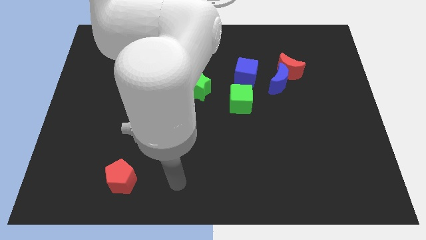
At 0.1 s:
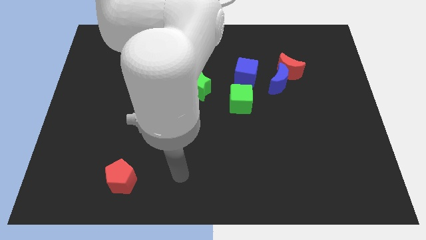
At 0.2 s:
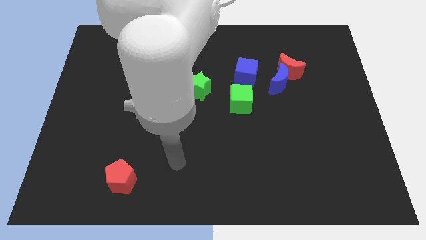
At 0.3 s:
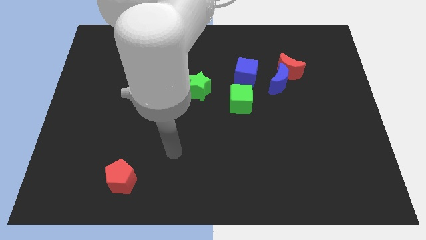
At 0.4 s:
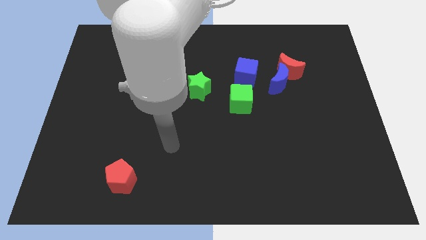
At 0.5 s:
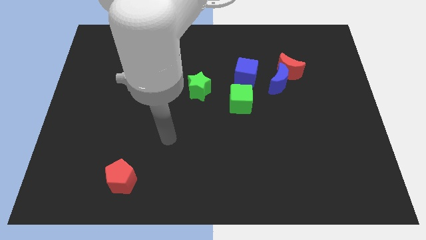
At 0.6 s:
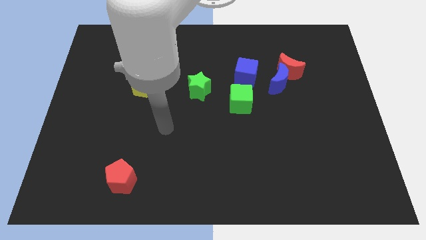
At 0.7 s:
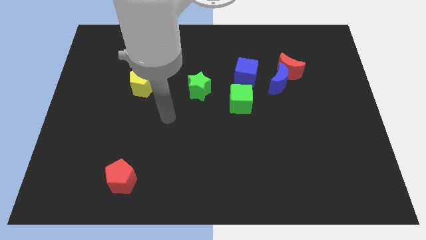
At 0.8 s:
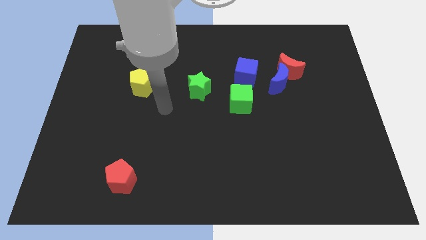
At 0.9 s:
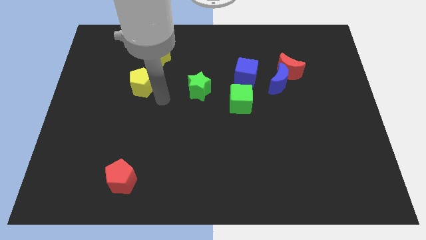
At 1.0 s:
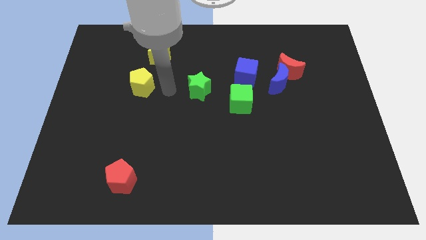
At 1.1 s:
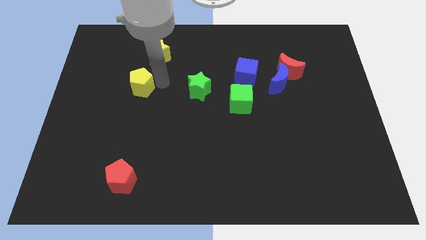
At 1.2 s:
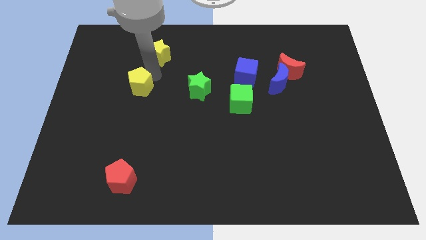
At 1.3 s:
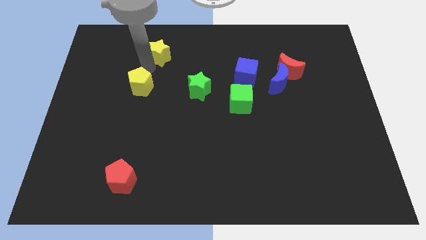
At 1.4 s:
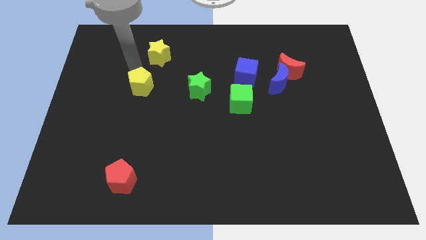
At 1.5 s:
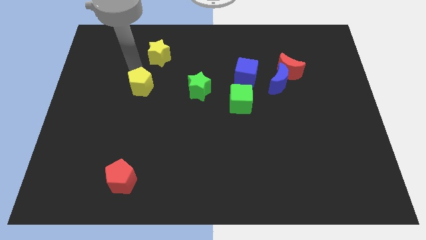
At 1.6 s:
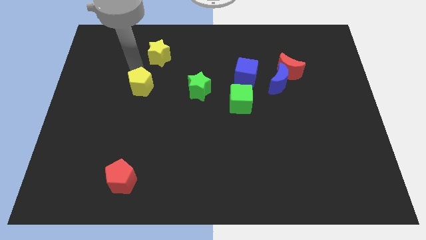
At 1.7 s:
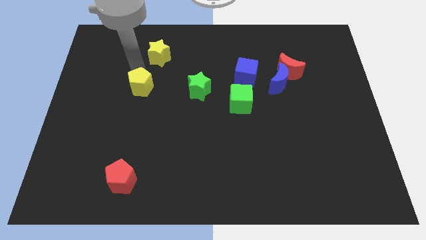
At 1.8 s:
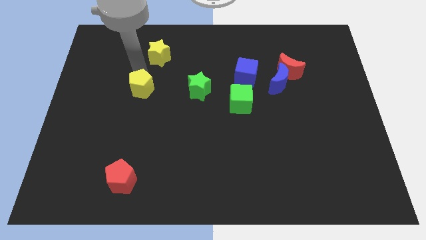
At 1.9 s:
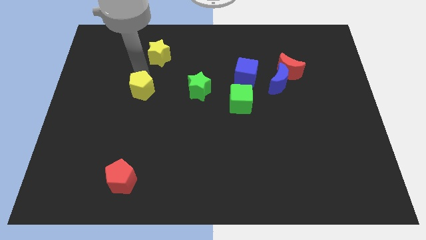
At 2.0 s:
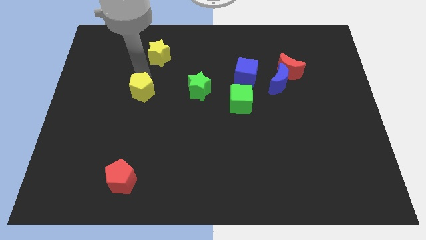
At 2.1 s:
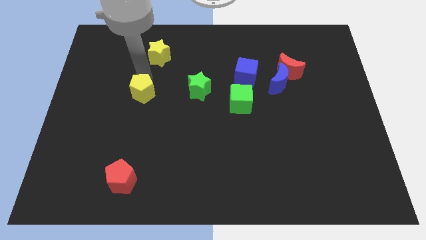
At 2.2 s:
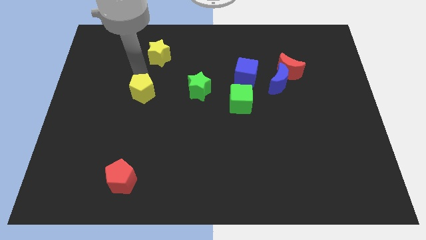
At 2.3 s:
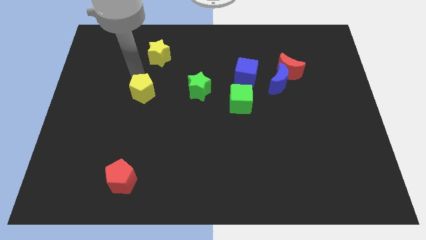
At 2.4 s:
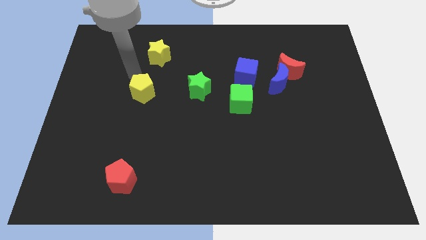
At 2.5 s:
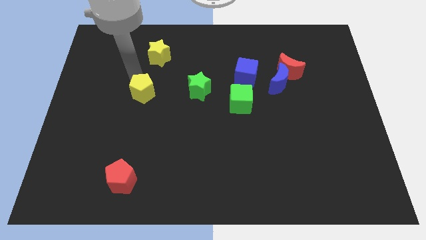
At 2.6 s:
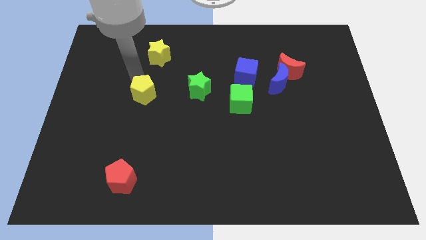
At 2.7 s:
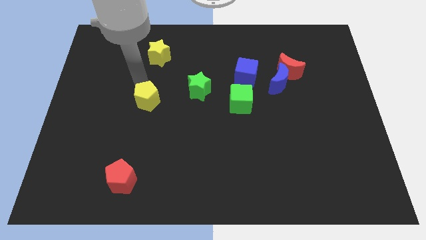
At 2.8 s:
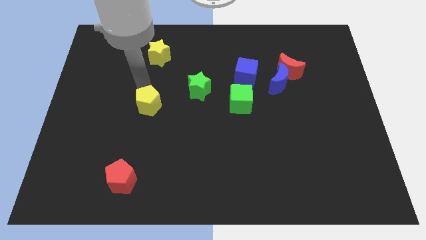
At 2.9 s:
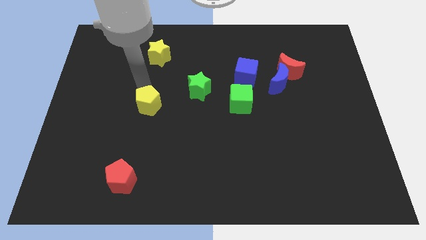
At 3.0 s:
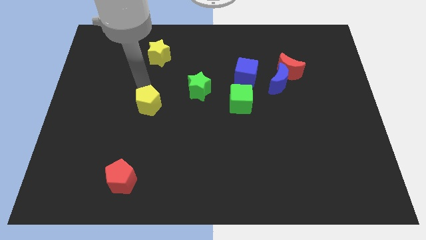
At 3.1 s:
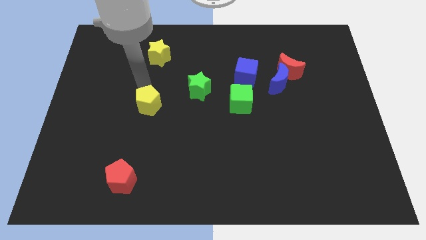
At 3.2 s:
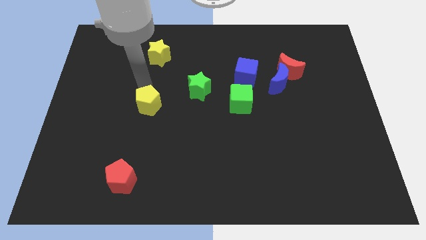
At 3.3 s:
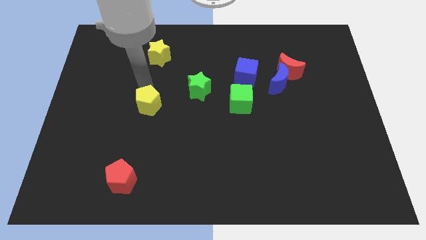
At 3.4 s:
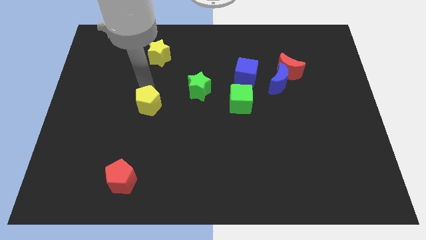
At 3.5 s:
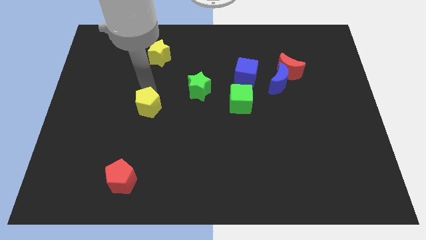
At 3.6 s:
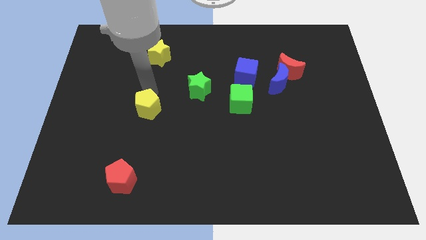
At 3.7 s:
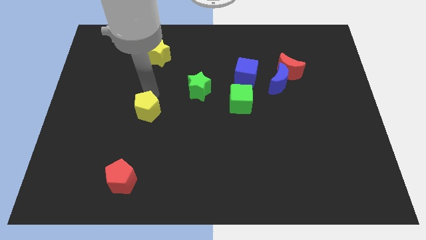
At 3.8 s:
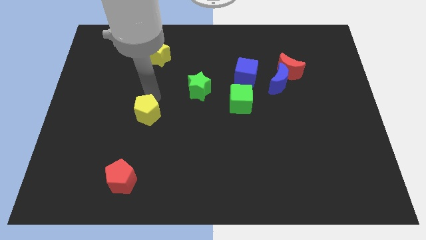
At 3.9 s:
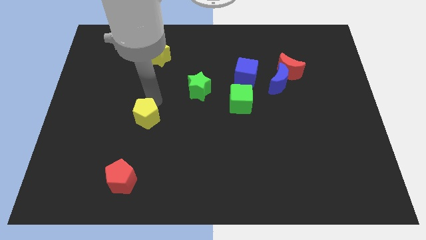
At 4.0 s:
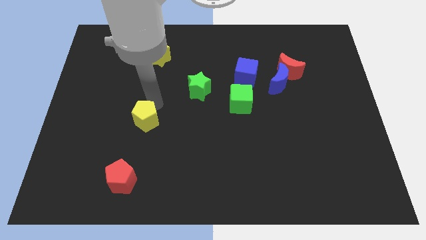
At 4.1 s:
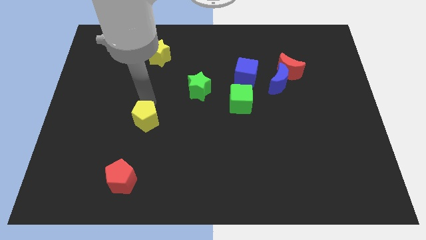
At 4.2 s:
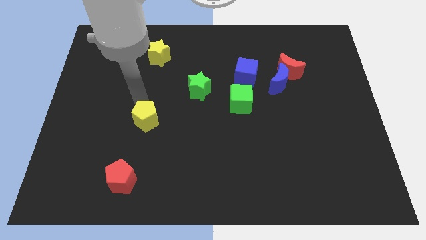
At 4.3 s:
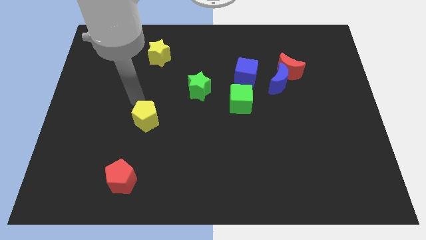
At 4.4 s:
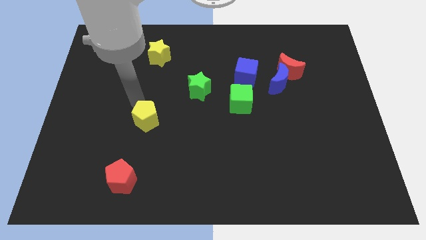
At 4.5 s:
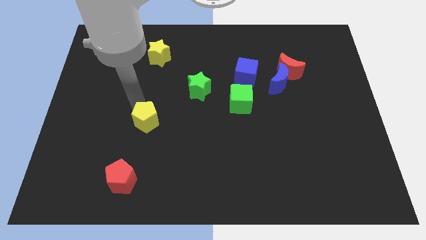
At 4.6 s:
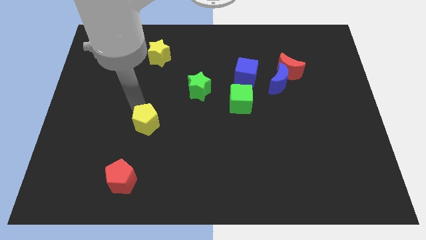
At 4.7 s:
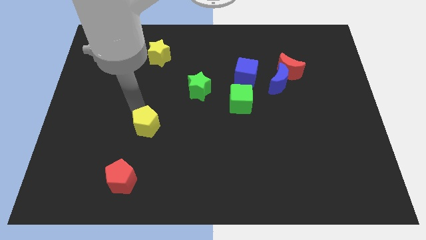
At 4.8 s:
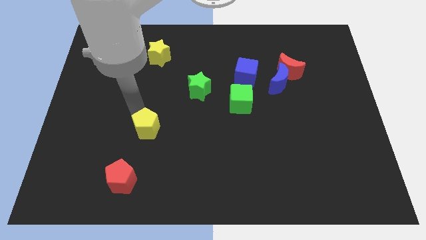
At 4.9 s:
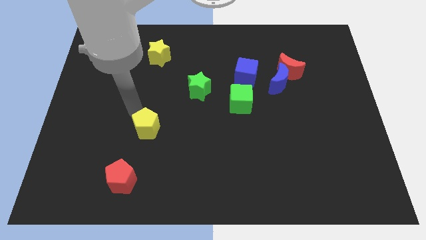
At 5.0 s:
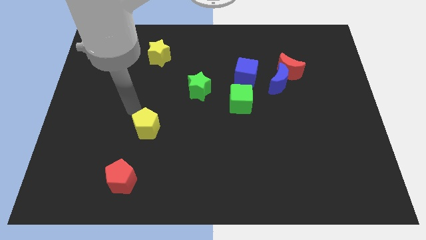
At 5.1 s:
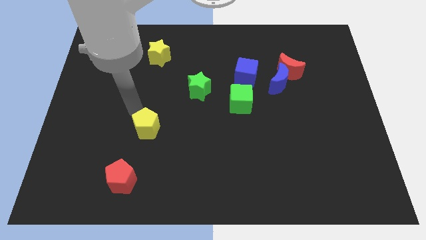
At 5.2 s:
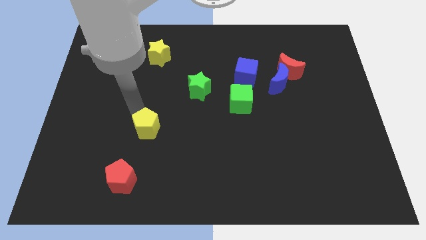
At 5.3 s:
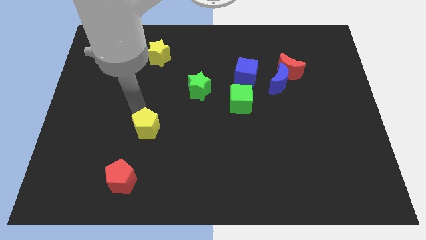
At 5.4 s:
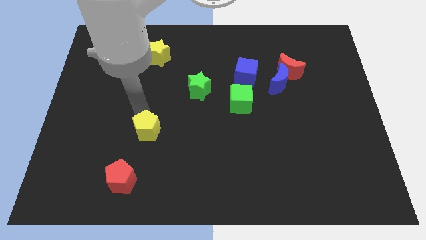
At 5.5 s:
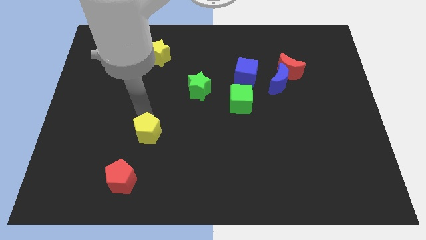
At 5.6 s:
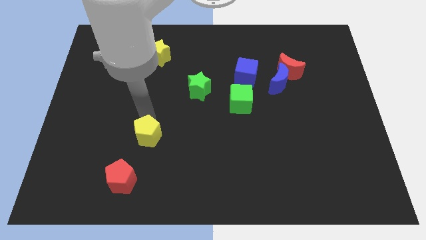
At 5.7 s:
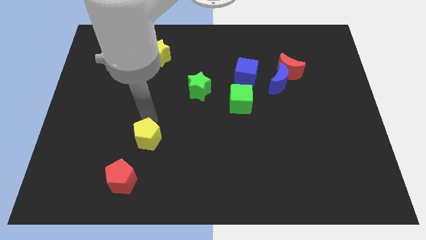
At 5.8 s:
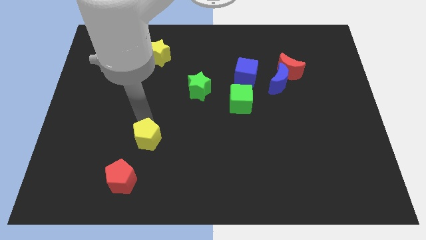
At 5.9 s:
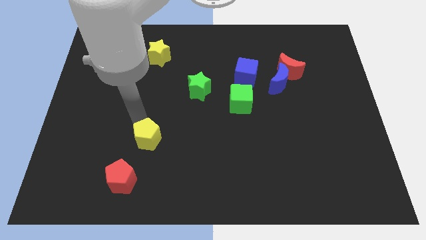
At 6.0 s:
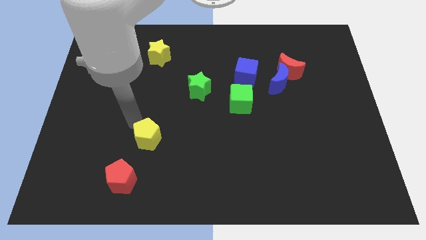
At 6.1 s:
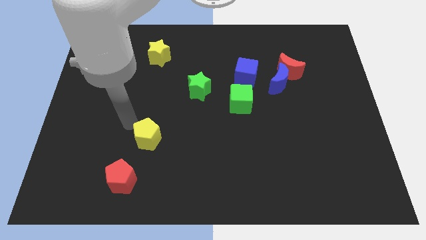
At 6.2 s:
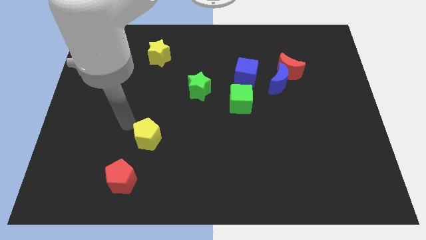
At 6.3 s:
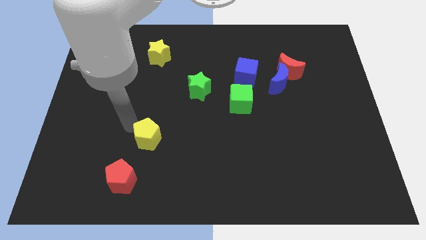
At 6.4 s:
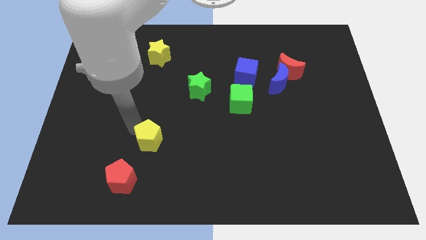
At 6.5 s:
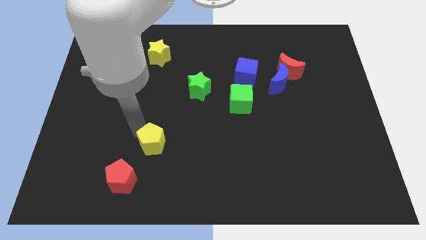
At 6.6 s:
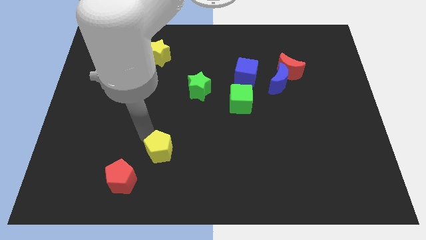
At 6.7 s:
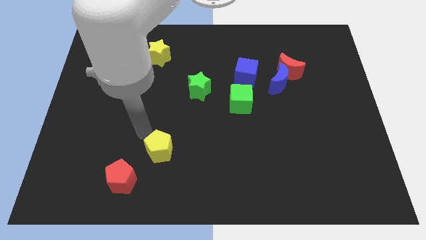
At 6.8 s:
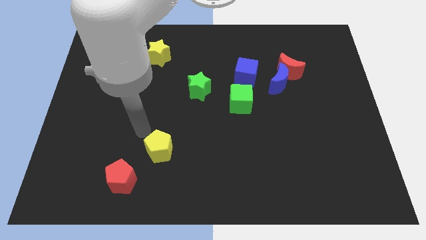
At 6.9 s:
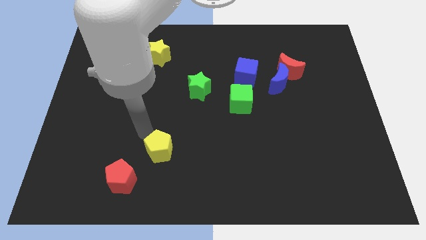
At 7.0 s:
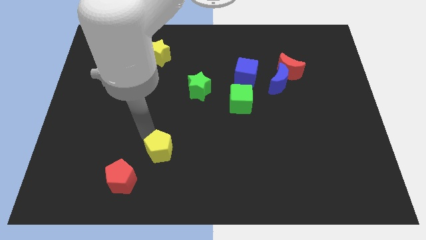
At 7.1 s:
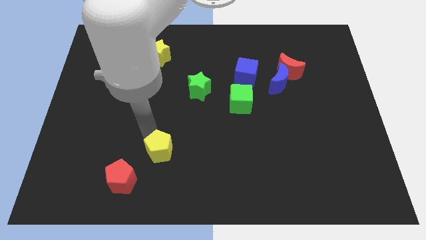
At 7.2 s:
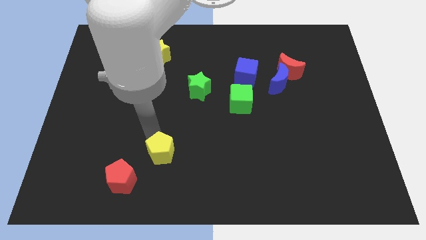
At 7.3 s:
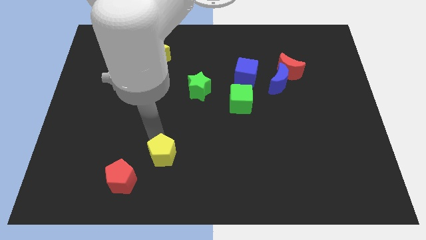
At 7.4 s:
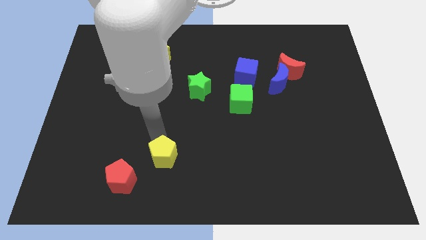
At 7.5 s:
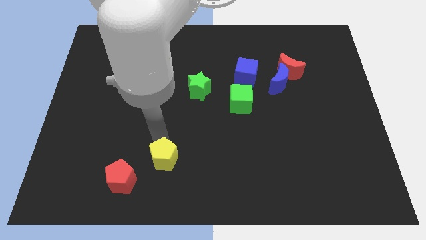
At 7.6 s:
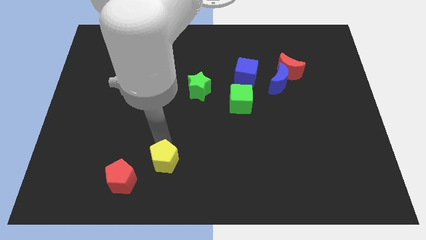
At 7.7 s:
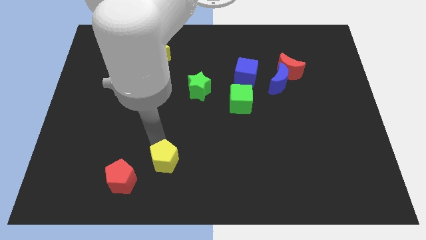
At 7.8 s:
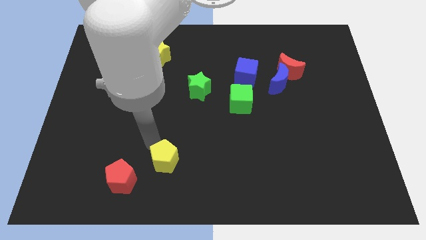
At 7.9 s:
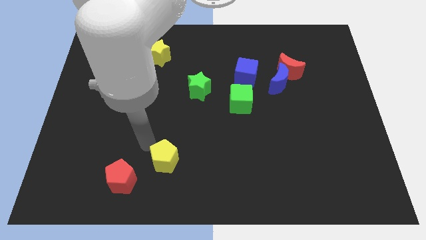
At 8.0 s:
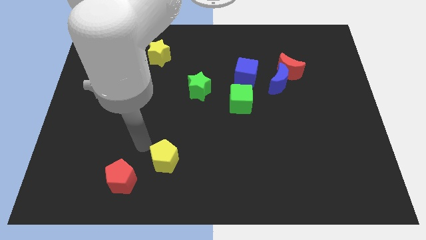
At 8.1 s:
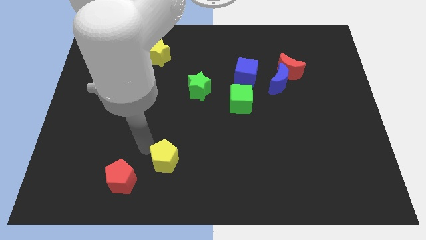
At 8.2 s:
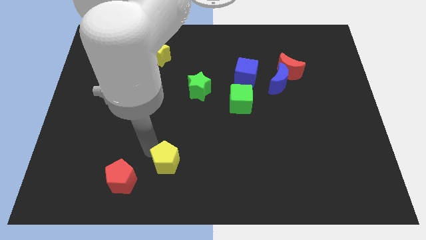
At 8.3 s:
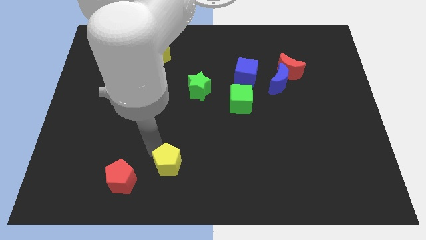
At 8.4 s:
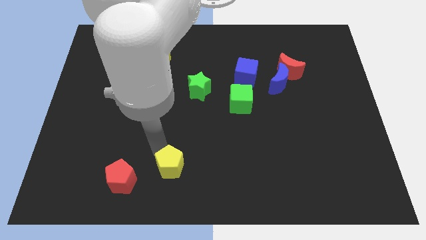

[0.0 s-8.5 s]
slide the yellow pentagon to the bottom side
